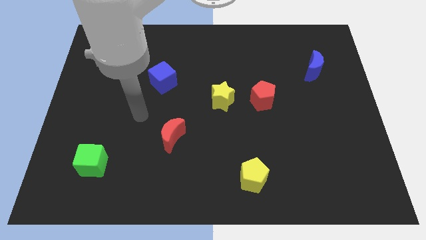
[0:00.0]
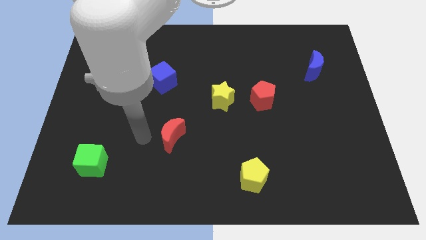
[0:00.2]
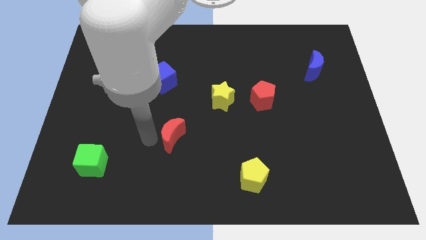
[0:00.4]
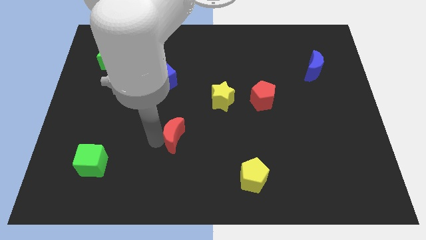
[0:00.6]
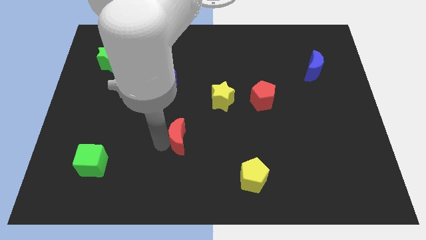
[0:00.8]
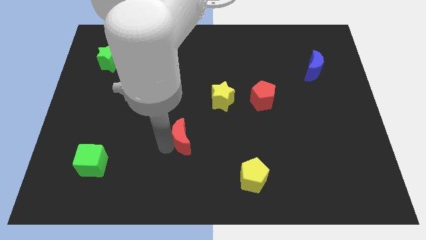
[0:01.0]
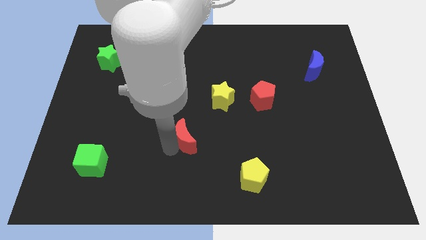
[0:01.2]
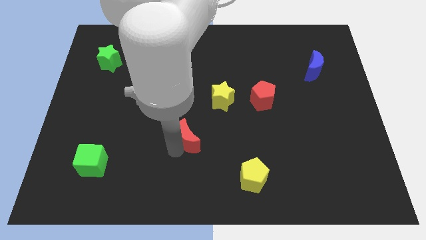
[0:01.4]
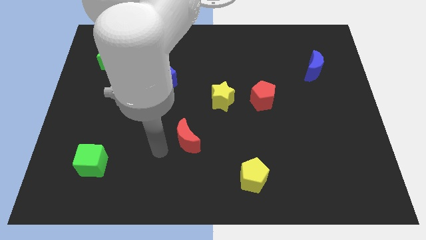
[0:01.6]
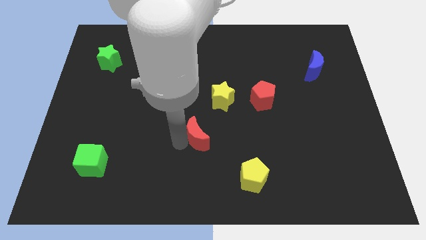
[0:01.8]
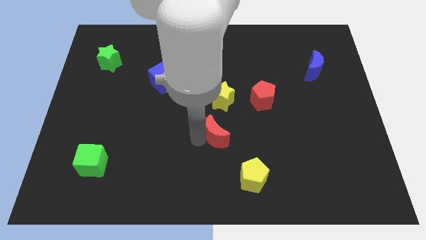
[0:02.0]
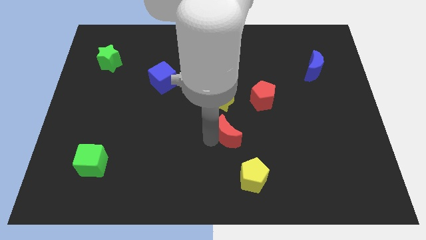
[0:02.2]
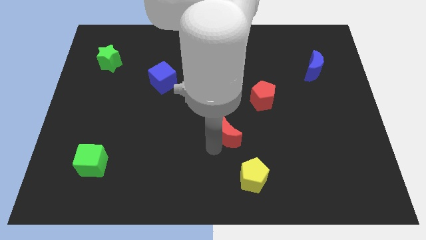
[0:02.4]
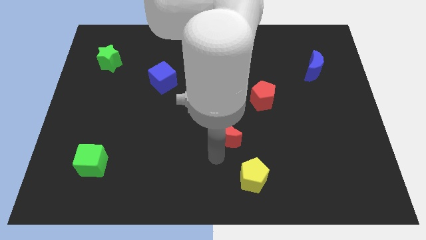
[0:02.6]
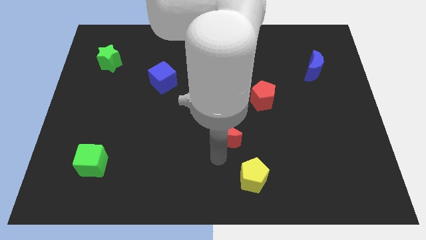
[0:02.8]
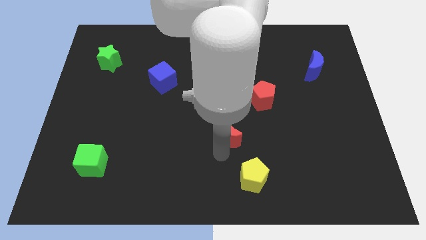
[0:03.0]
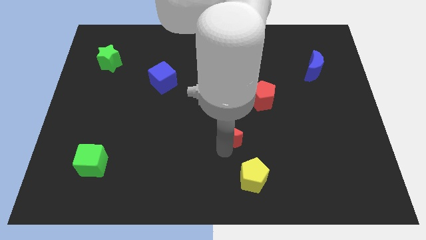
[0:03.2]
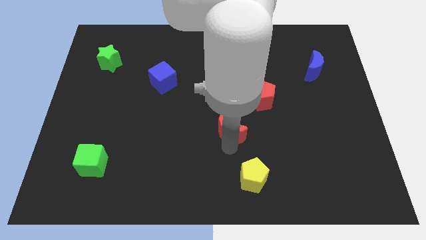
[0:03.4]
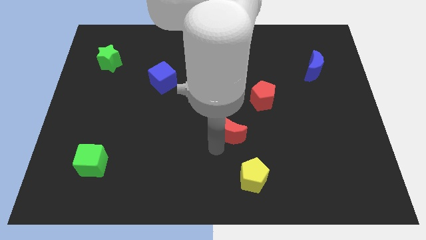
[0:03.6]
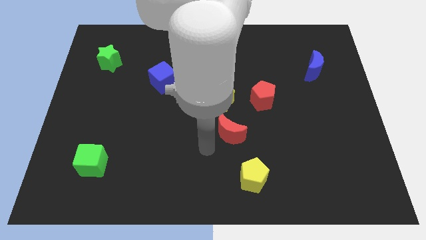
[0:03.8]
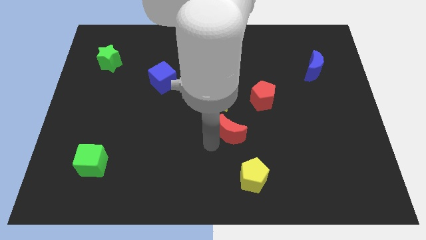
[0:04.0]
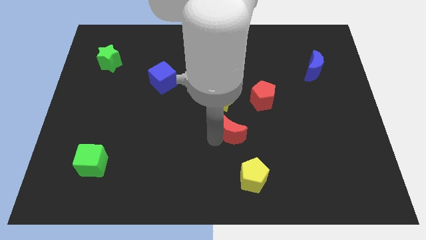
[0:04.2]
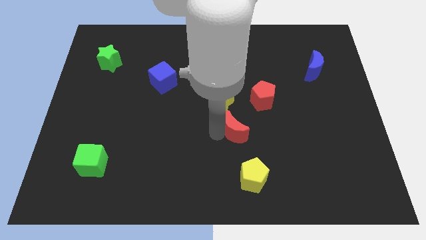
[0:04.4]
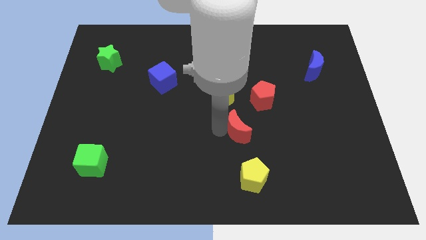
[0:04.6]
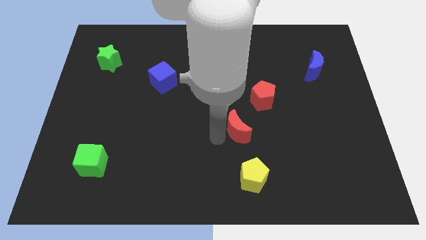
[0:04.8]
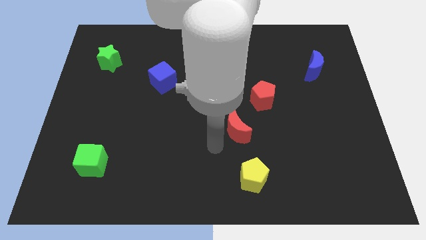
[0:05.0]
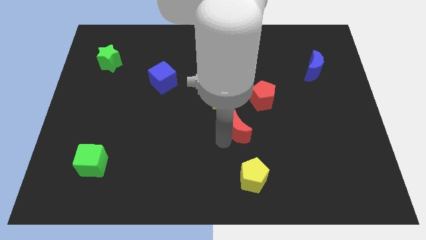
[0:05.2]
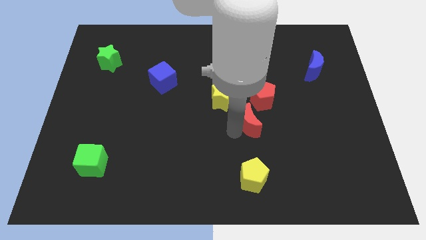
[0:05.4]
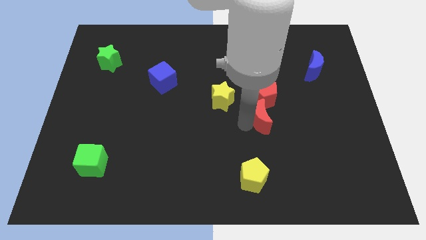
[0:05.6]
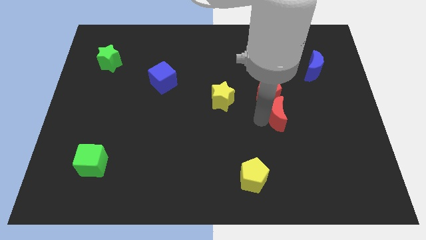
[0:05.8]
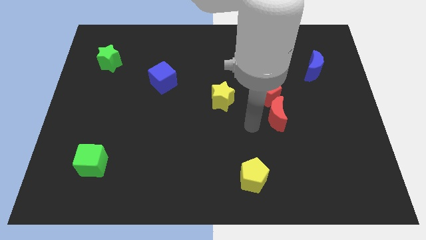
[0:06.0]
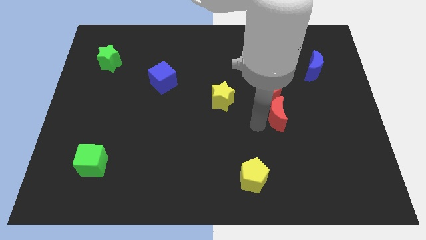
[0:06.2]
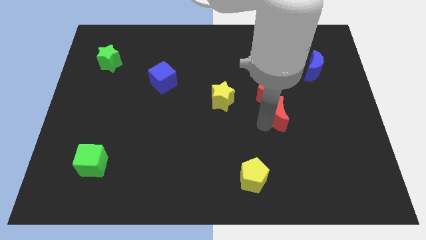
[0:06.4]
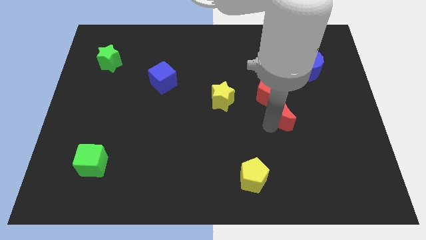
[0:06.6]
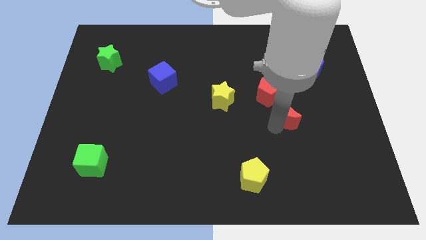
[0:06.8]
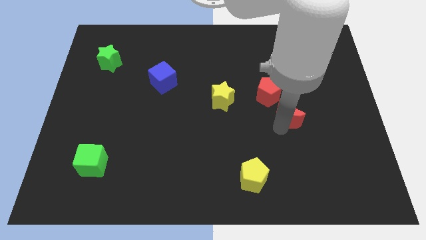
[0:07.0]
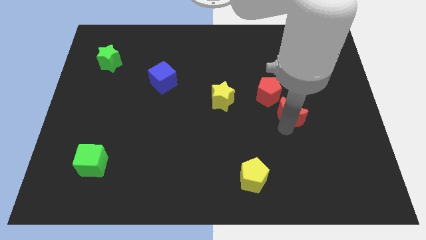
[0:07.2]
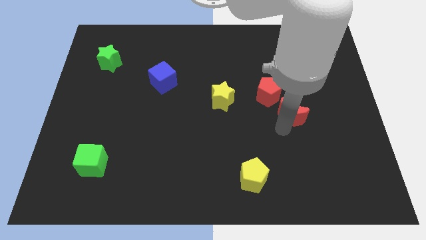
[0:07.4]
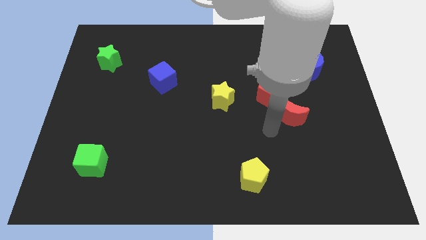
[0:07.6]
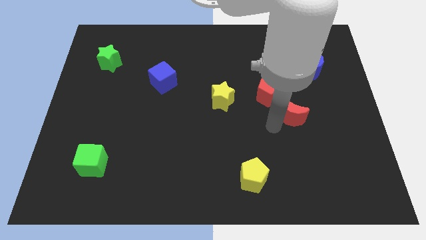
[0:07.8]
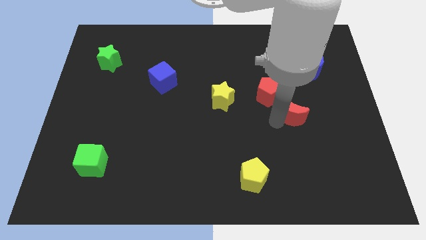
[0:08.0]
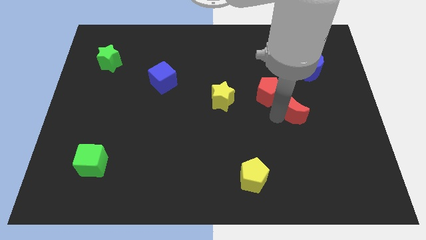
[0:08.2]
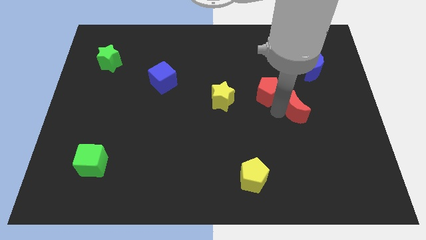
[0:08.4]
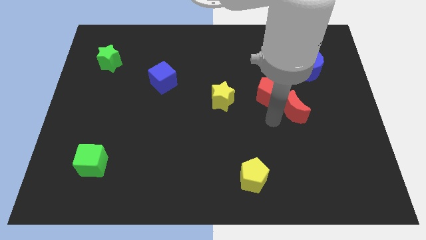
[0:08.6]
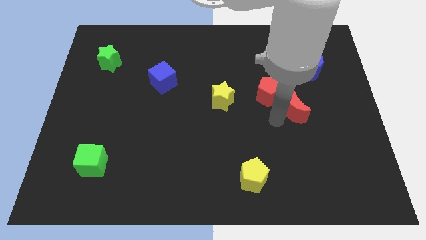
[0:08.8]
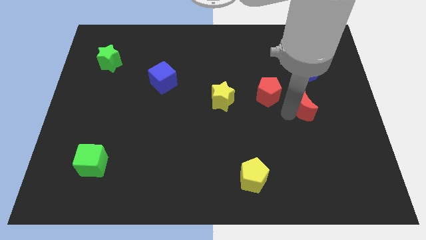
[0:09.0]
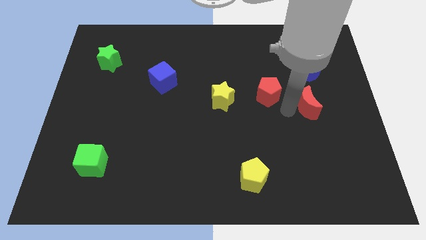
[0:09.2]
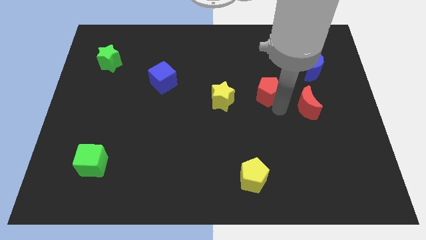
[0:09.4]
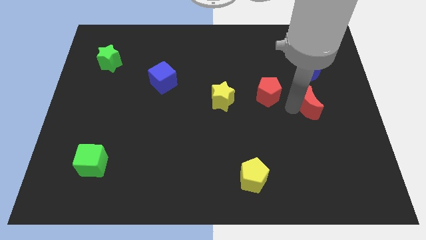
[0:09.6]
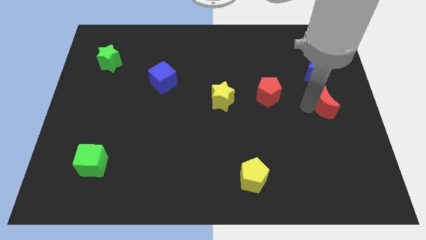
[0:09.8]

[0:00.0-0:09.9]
put the red moon to the center right

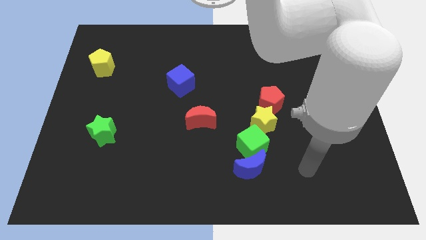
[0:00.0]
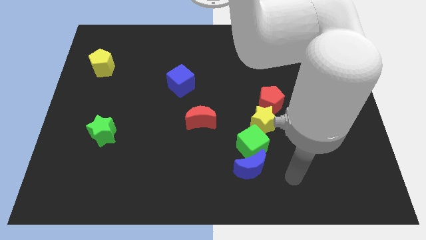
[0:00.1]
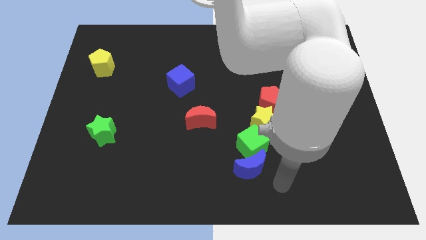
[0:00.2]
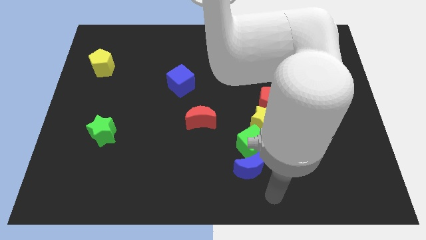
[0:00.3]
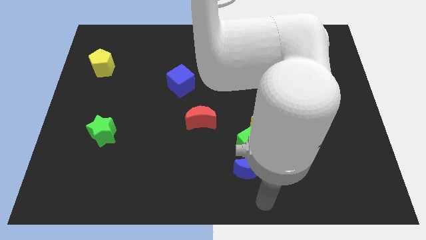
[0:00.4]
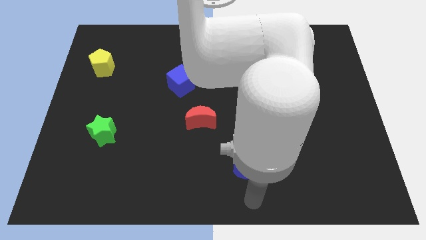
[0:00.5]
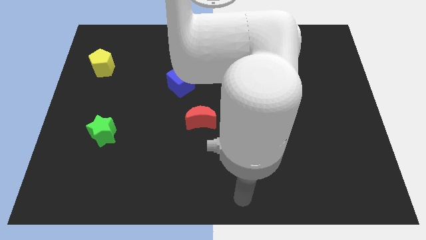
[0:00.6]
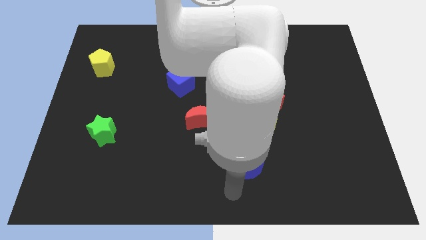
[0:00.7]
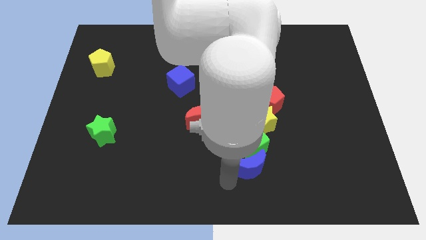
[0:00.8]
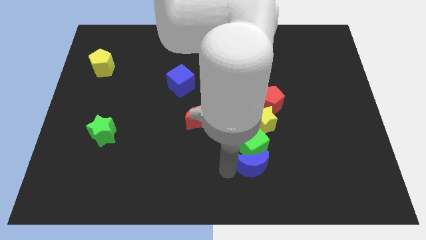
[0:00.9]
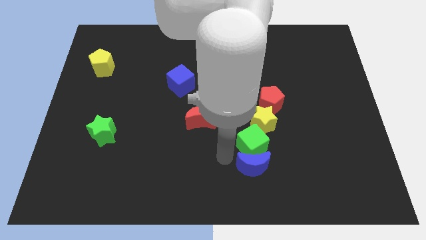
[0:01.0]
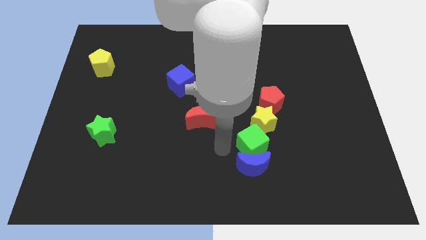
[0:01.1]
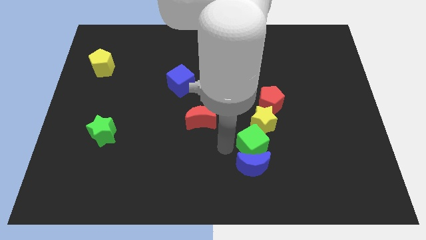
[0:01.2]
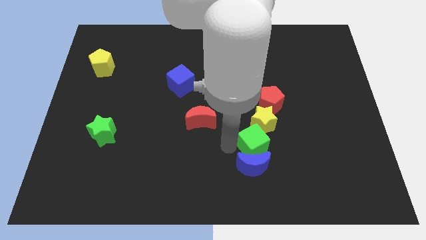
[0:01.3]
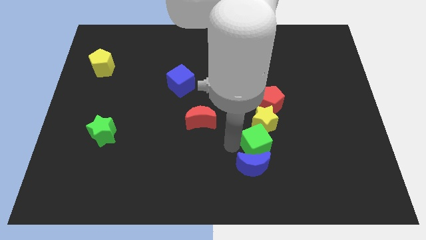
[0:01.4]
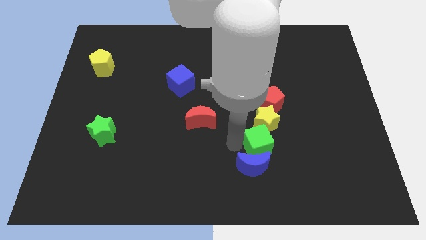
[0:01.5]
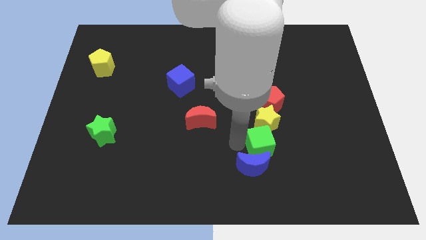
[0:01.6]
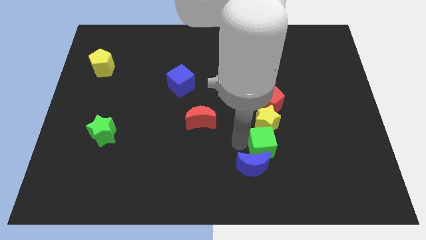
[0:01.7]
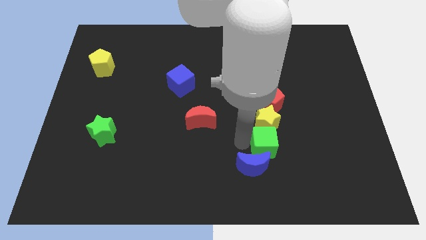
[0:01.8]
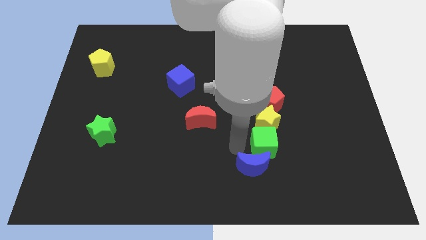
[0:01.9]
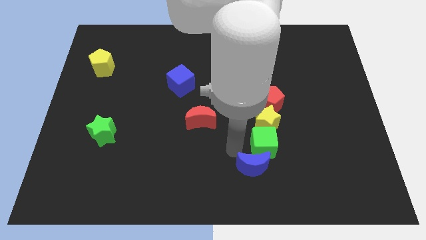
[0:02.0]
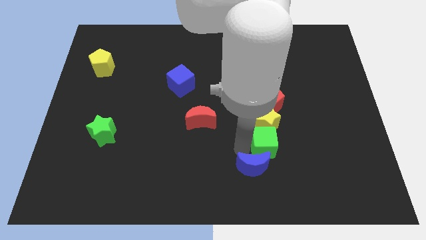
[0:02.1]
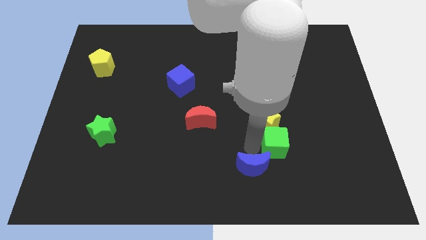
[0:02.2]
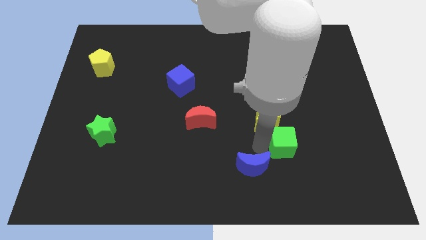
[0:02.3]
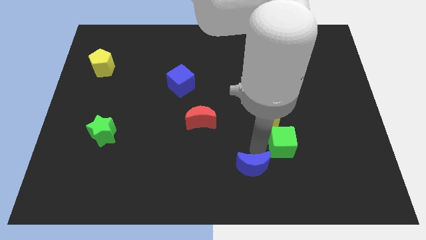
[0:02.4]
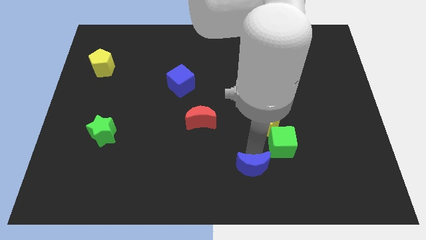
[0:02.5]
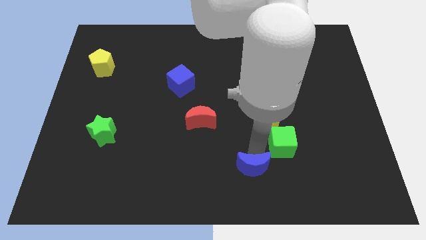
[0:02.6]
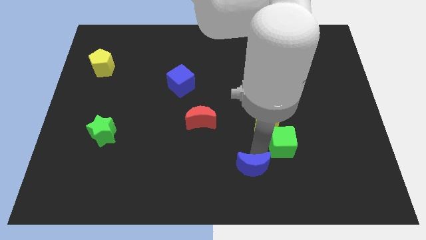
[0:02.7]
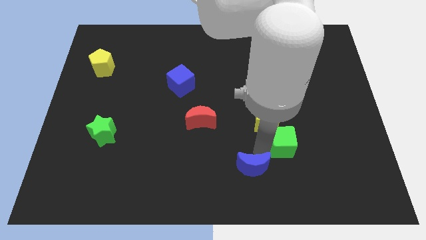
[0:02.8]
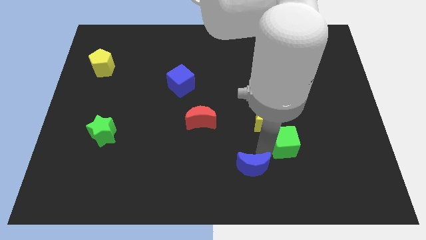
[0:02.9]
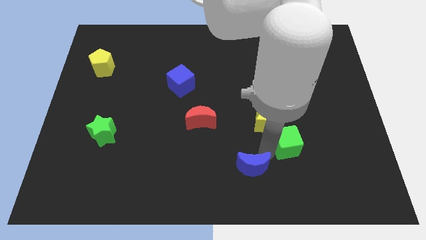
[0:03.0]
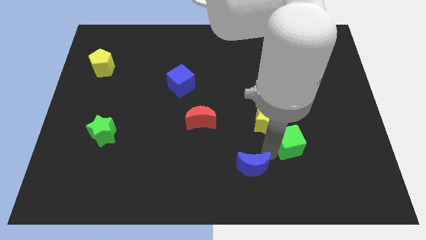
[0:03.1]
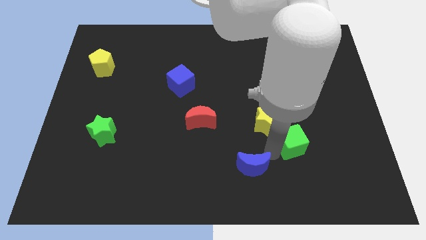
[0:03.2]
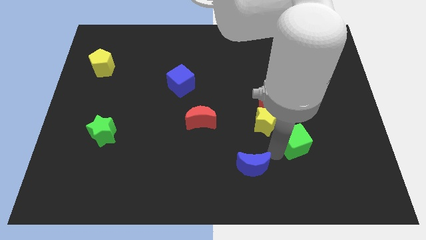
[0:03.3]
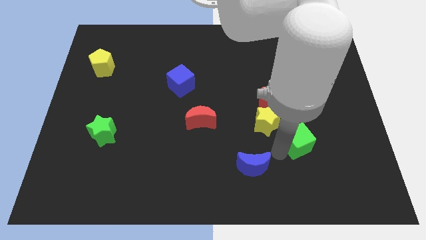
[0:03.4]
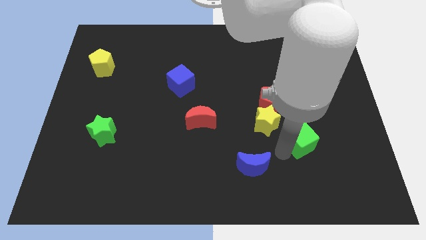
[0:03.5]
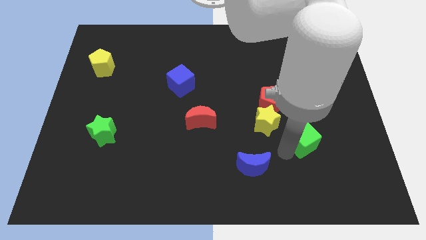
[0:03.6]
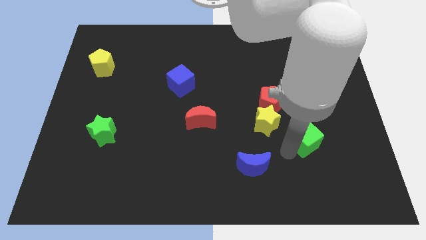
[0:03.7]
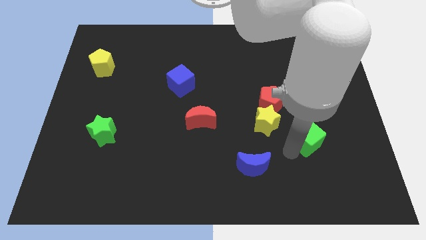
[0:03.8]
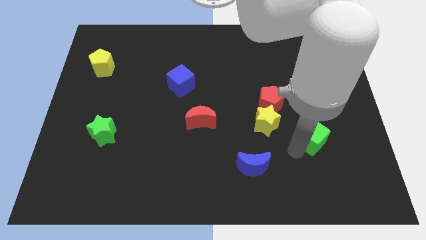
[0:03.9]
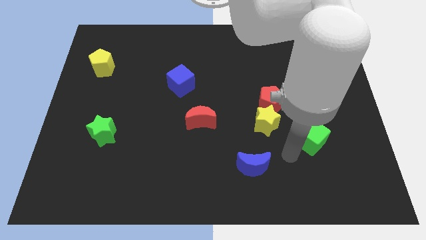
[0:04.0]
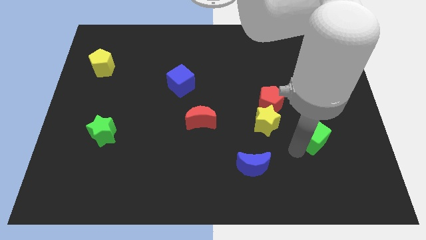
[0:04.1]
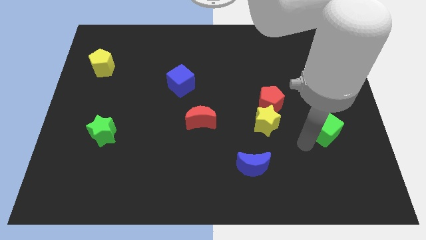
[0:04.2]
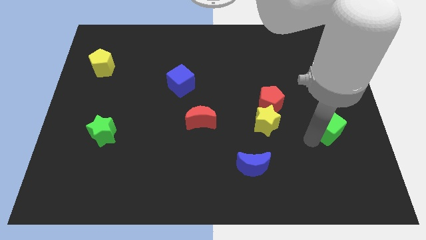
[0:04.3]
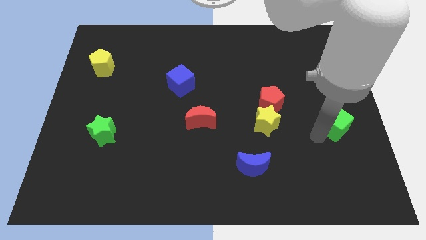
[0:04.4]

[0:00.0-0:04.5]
put the green cube to the center right
